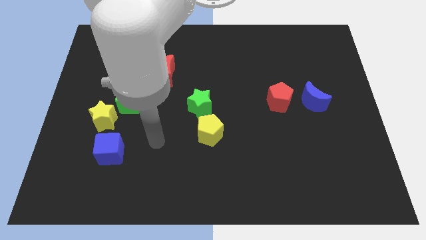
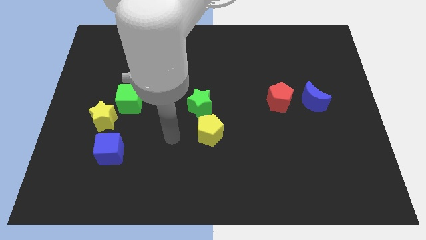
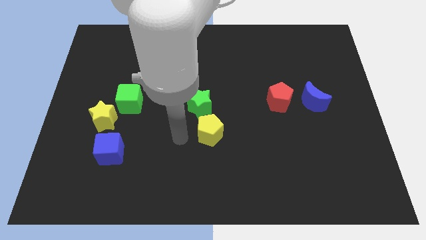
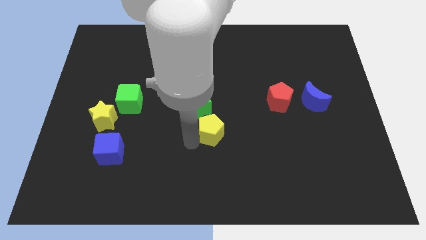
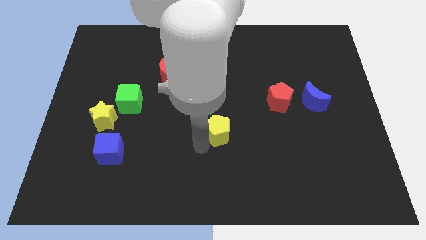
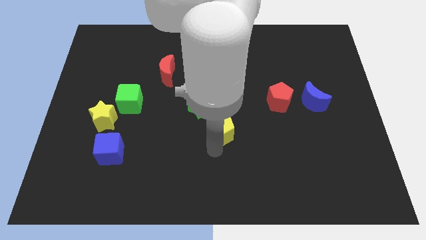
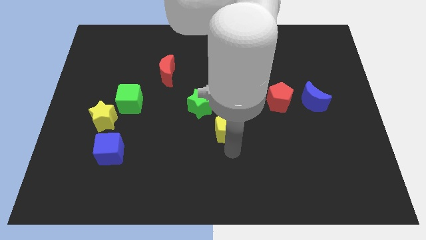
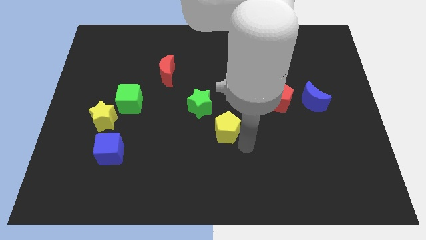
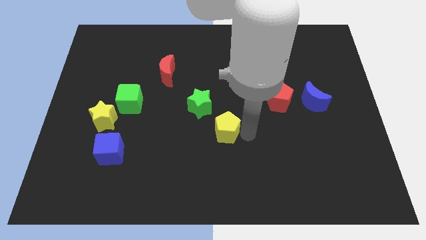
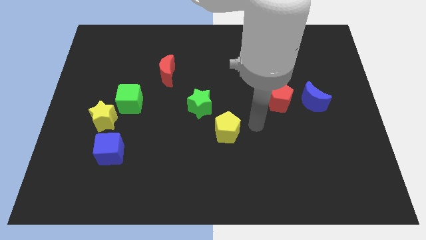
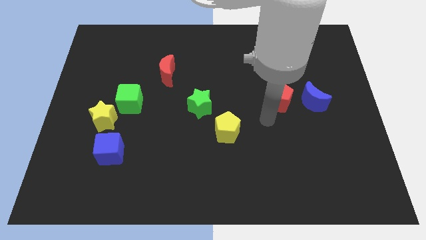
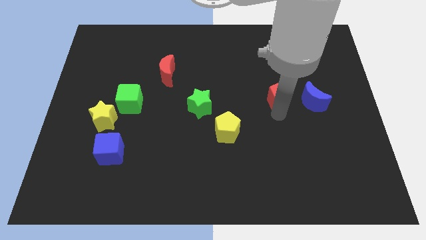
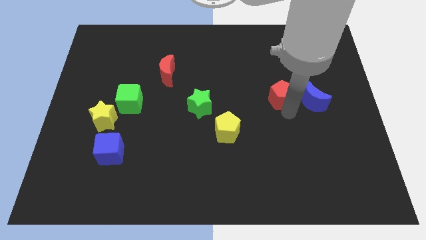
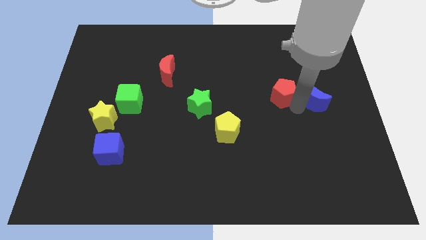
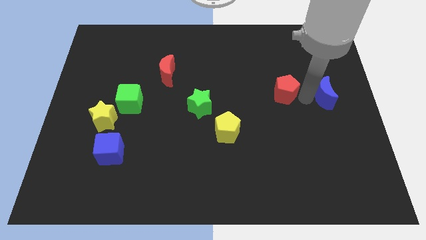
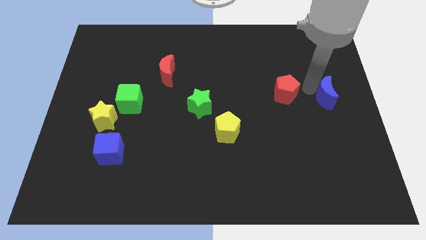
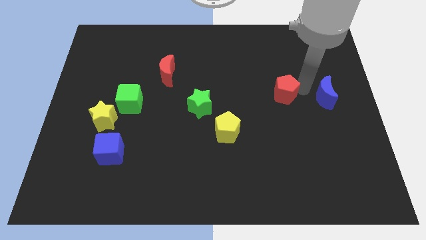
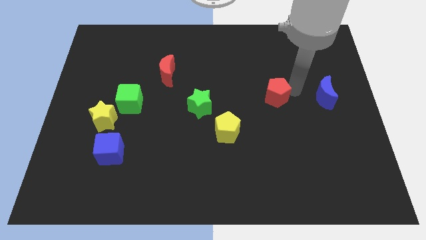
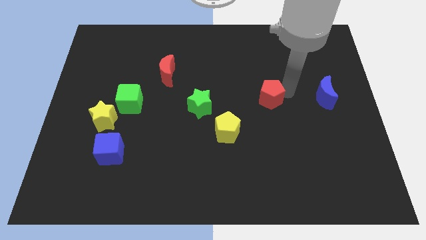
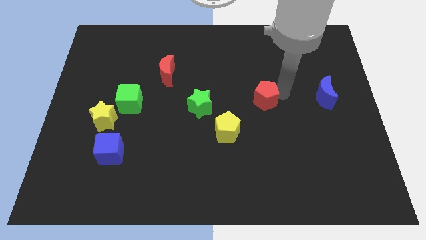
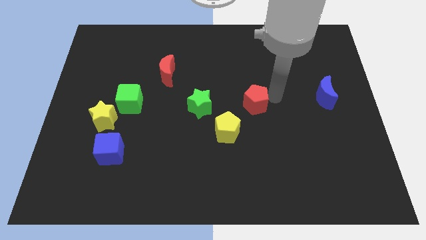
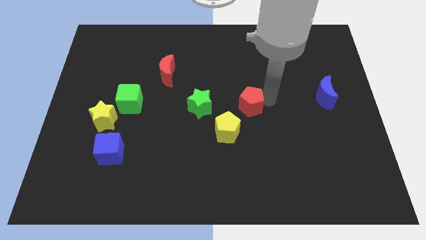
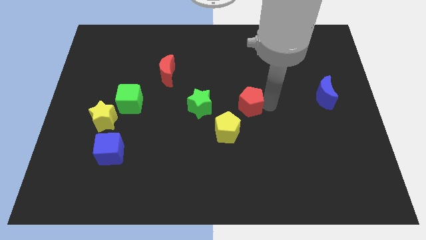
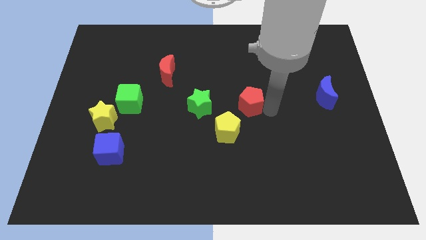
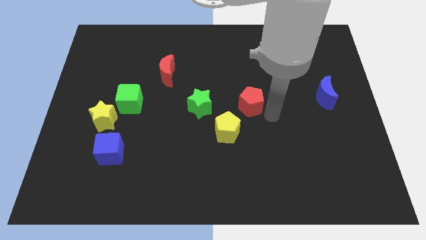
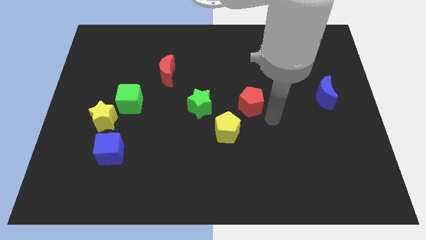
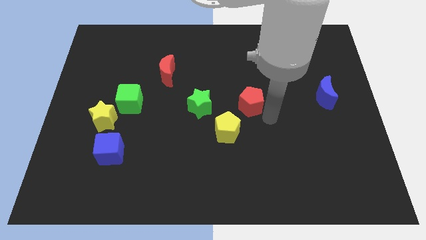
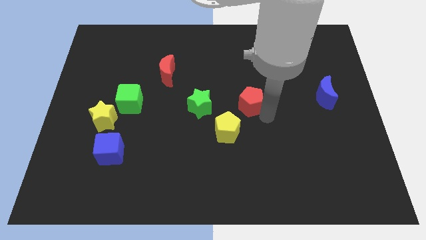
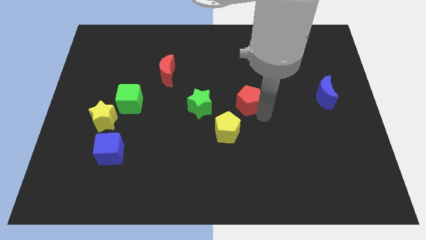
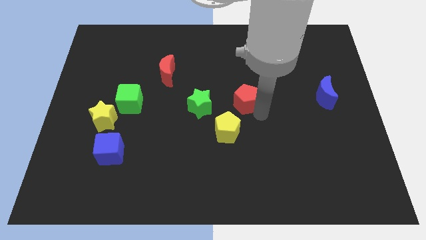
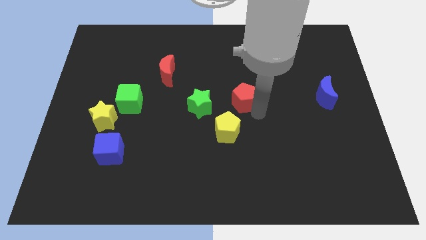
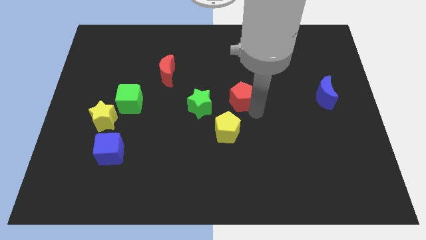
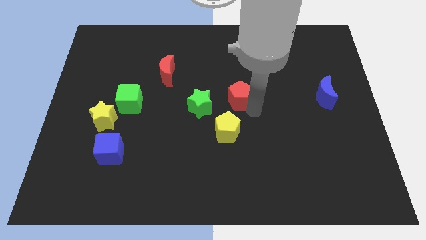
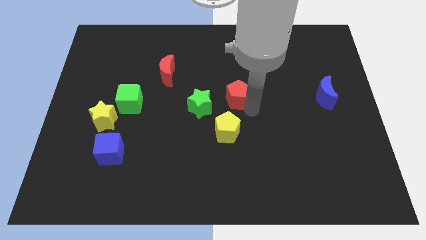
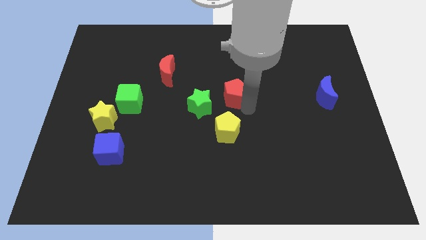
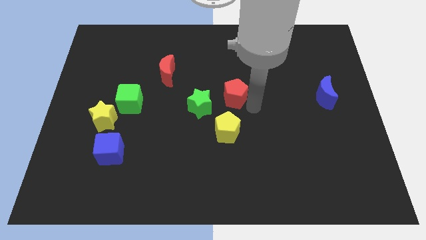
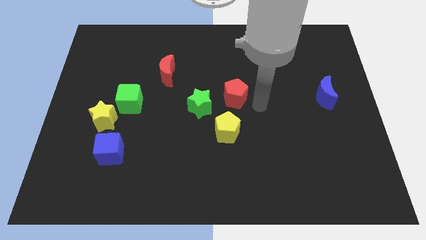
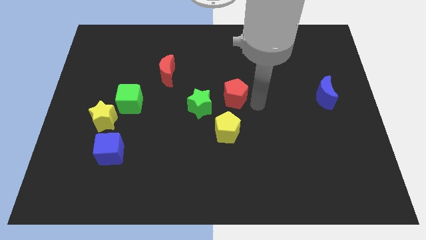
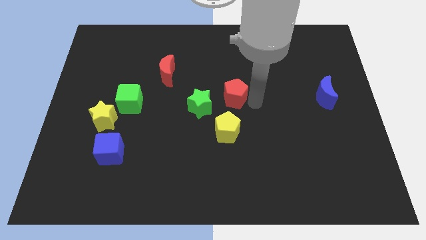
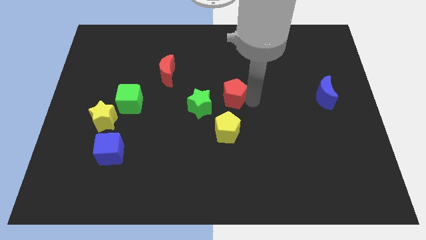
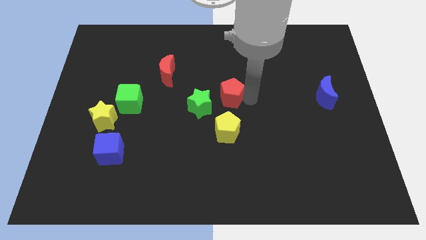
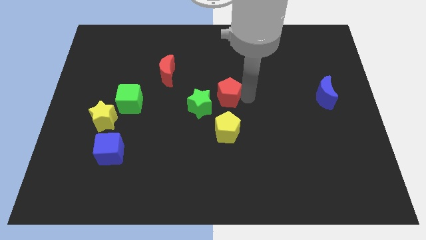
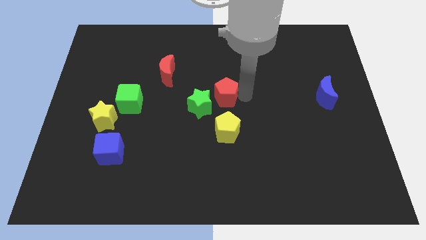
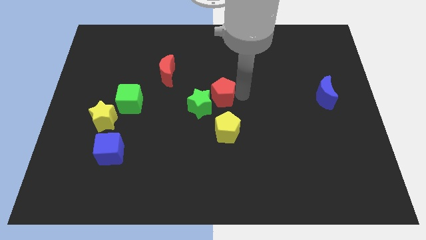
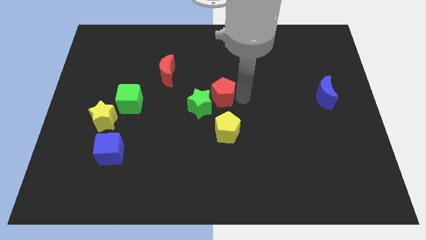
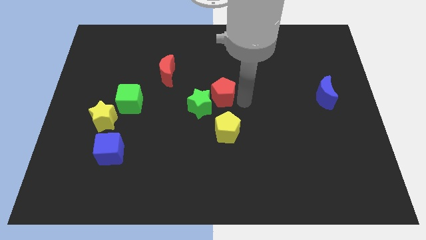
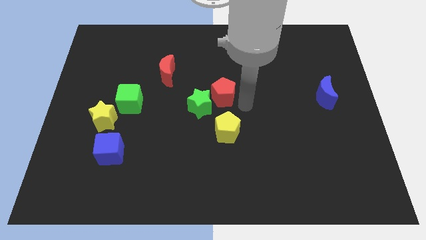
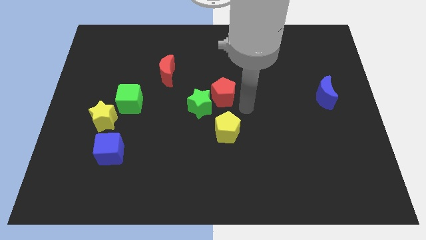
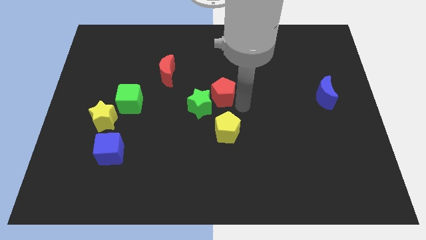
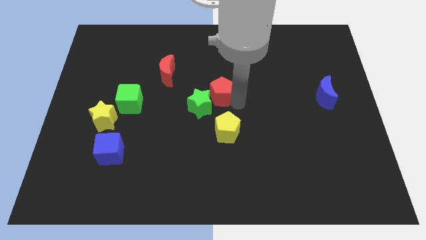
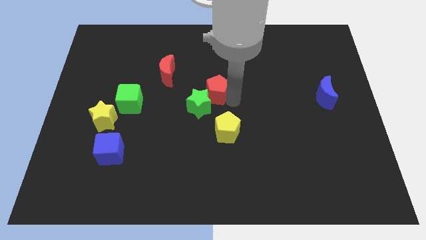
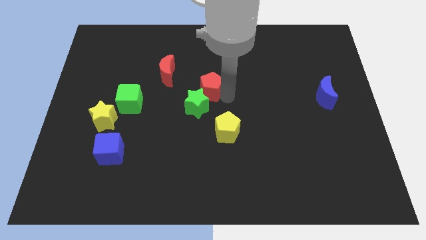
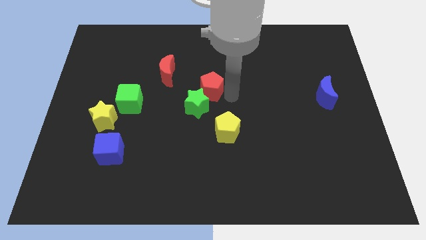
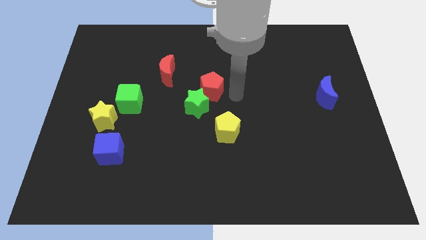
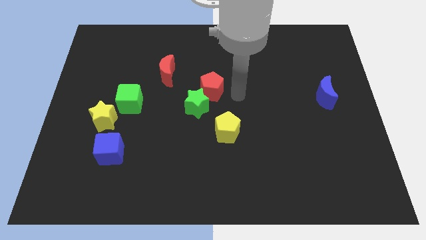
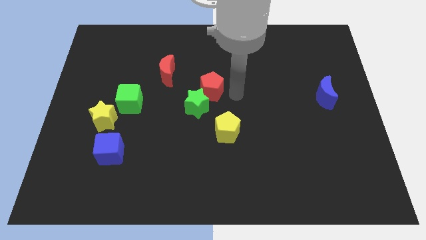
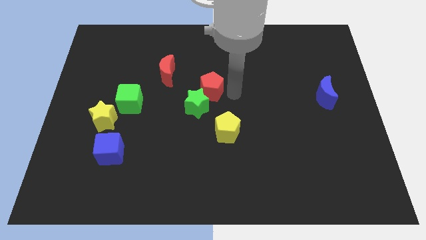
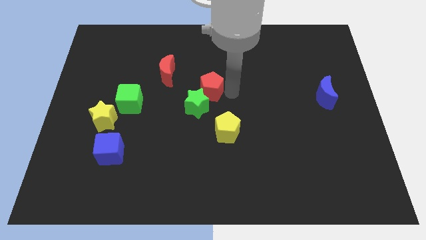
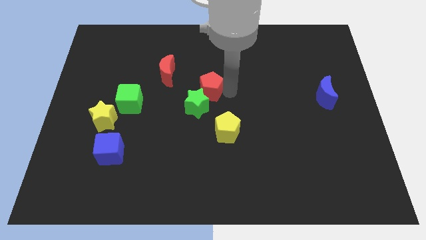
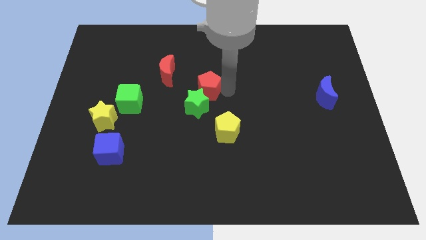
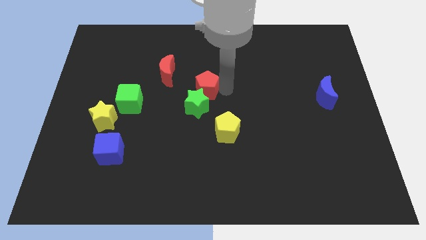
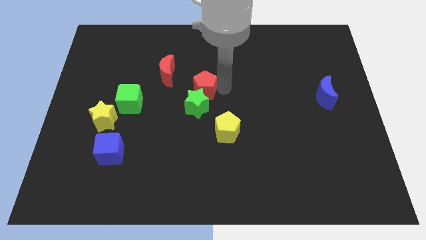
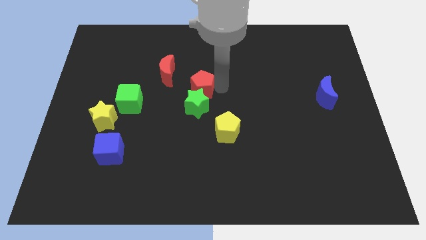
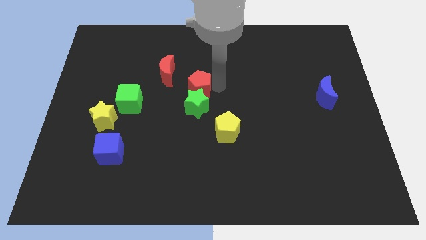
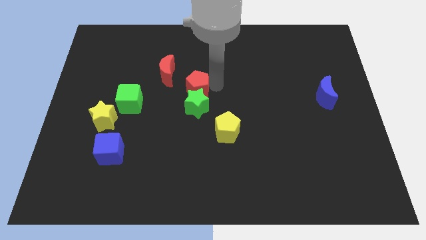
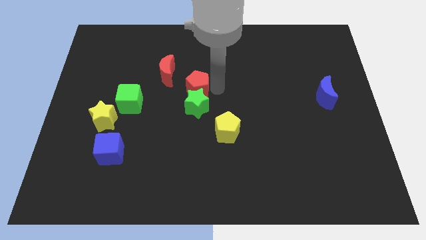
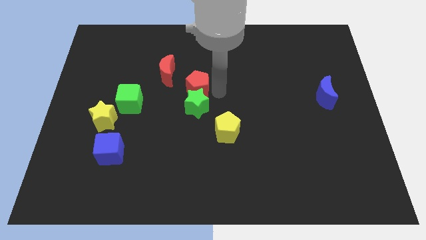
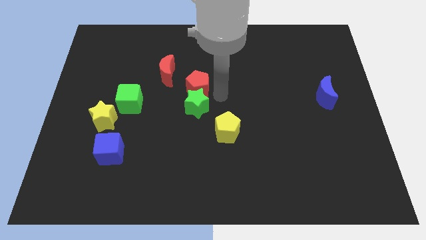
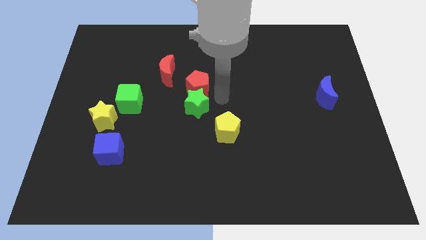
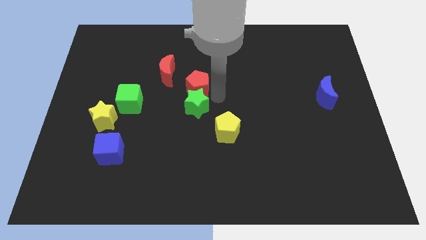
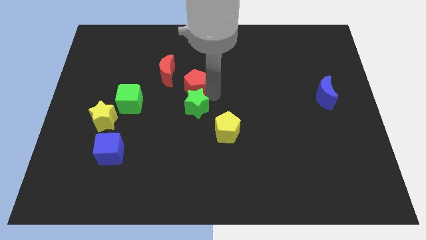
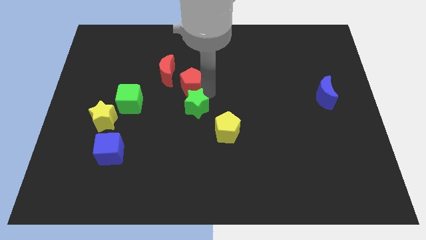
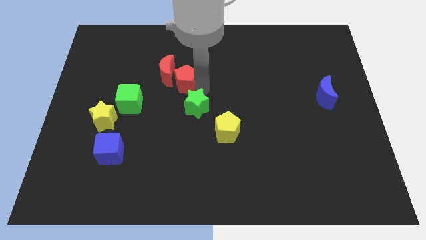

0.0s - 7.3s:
push the red pentagon next to the red moon
